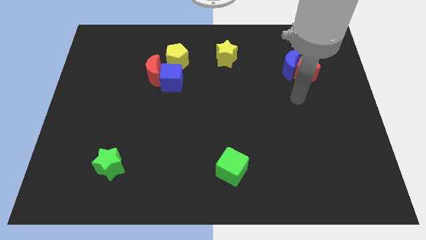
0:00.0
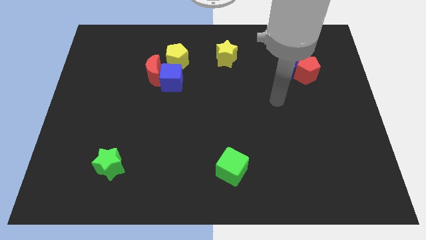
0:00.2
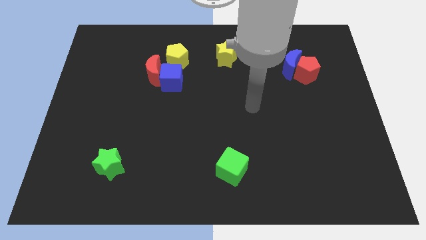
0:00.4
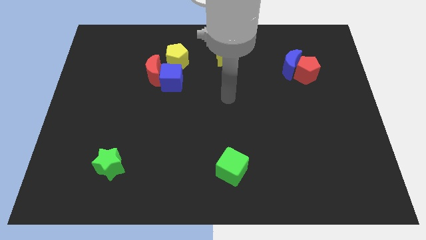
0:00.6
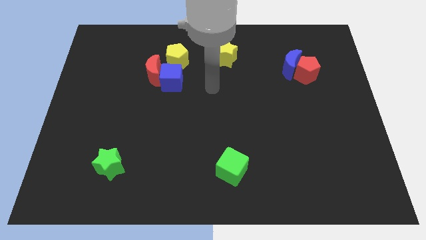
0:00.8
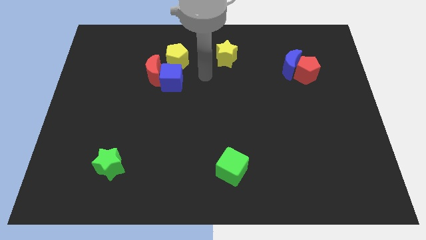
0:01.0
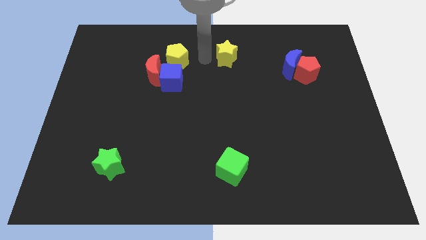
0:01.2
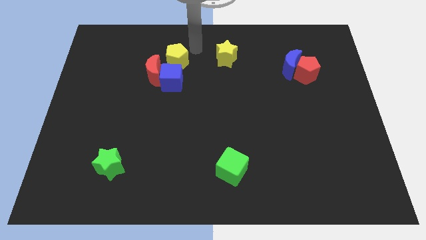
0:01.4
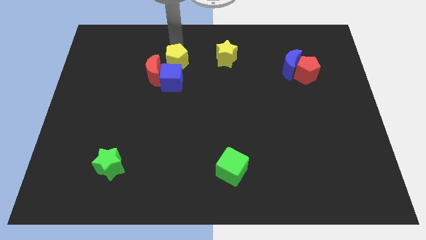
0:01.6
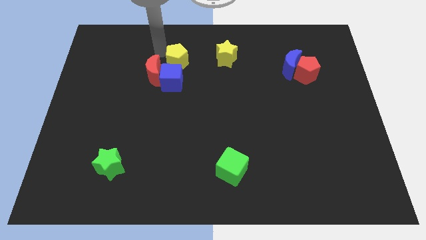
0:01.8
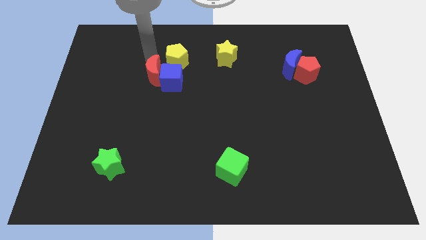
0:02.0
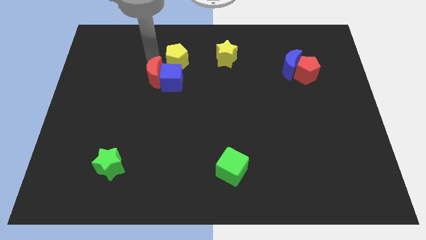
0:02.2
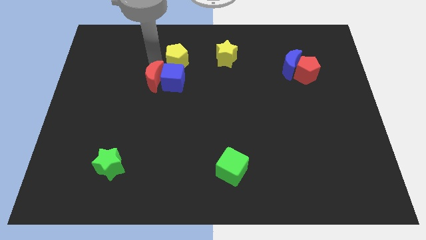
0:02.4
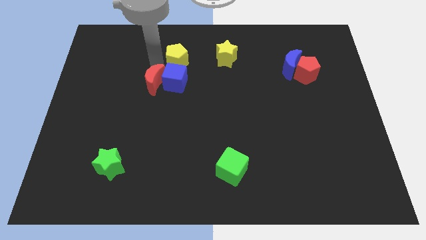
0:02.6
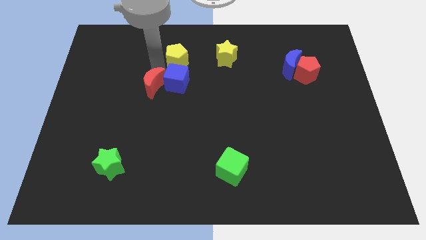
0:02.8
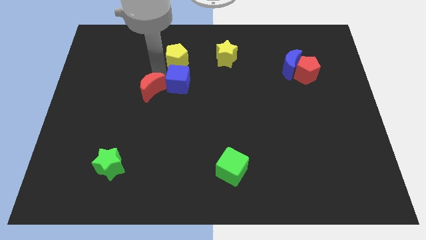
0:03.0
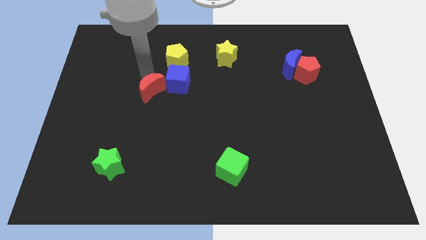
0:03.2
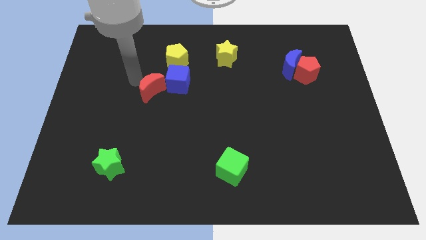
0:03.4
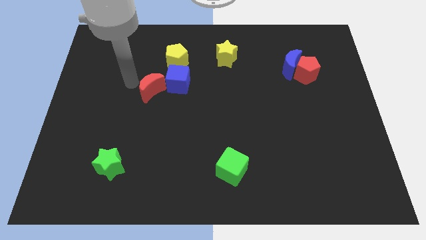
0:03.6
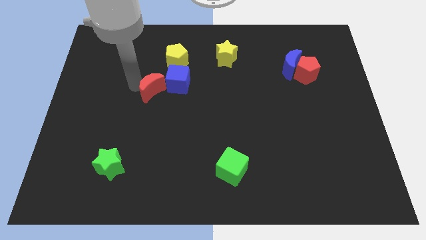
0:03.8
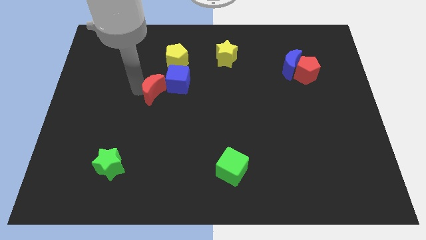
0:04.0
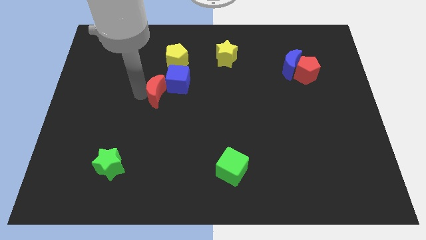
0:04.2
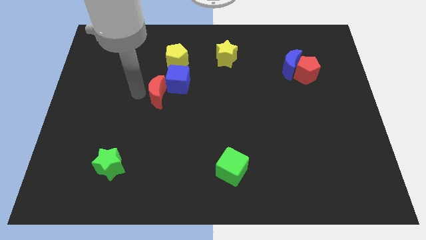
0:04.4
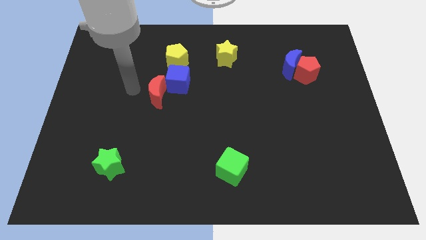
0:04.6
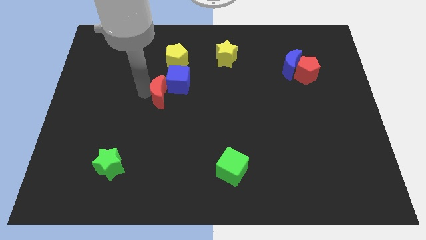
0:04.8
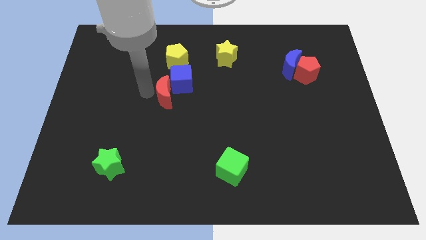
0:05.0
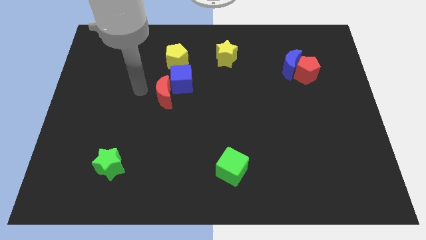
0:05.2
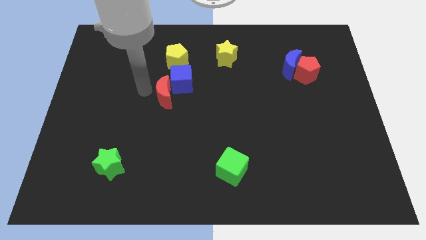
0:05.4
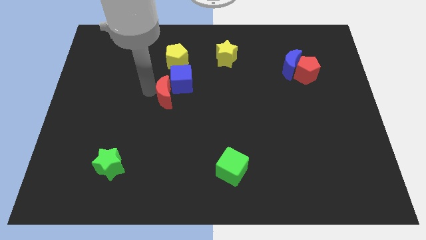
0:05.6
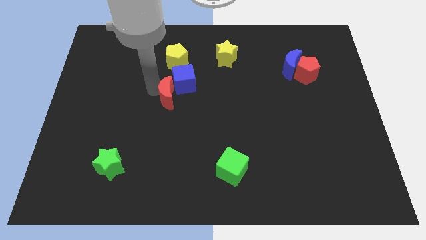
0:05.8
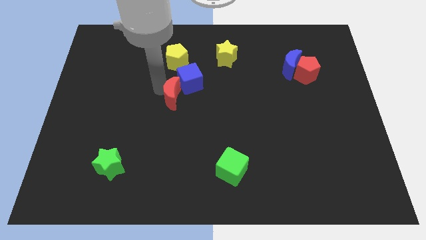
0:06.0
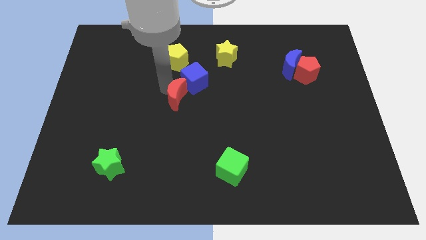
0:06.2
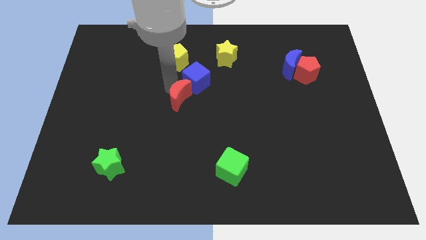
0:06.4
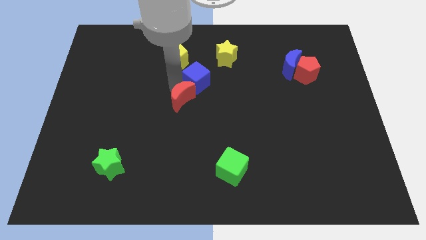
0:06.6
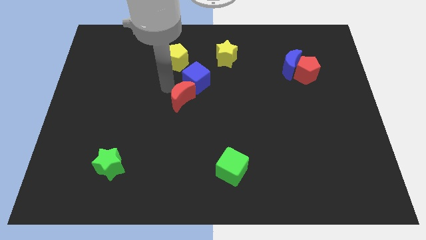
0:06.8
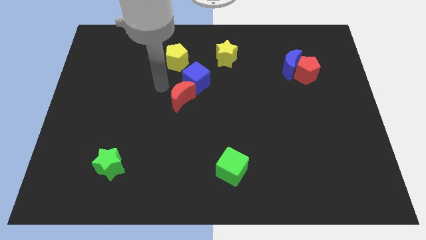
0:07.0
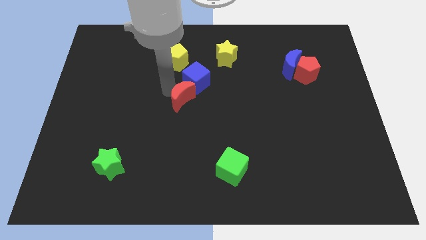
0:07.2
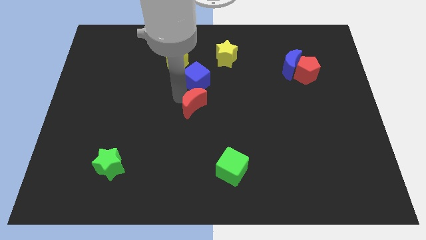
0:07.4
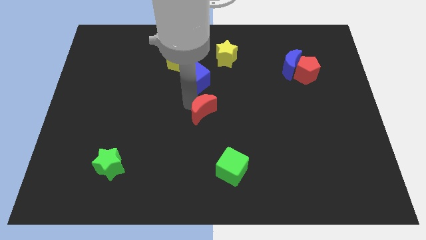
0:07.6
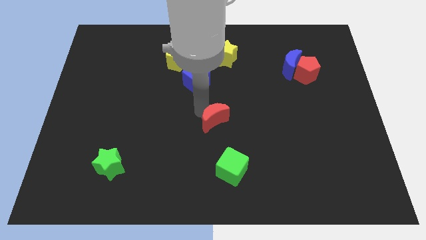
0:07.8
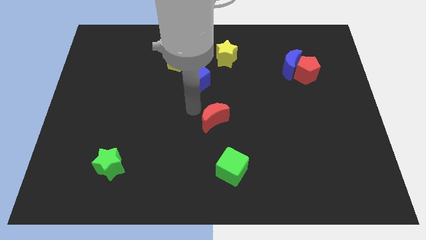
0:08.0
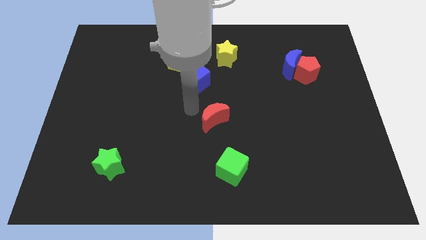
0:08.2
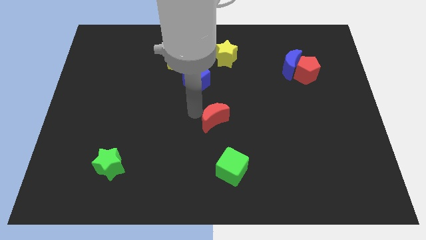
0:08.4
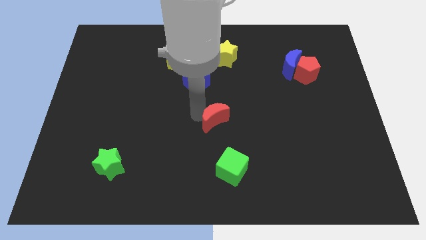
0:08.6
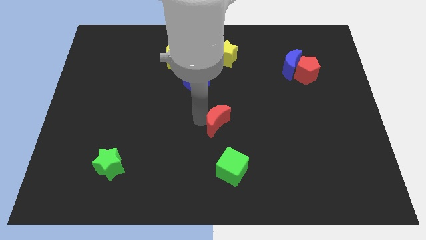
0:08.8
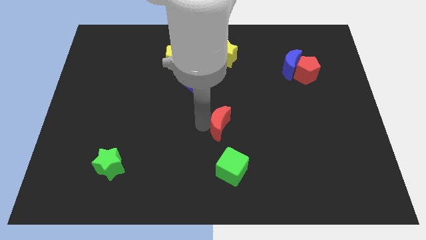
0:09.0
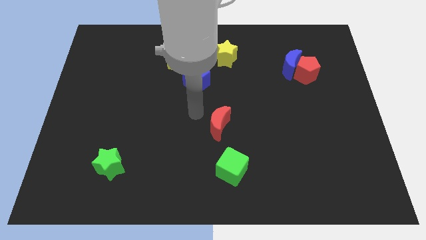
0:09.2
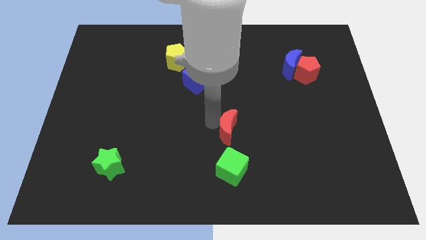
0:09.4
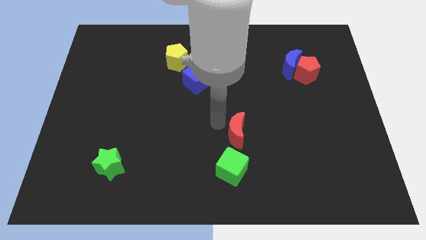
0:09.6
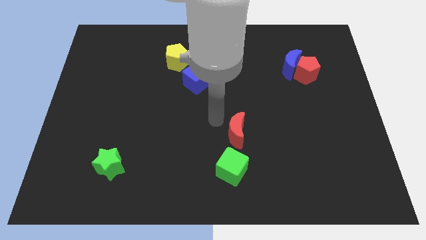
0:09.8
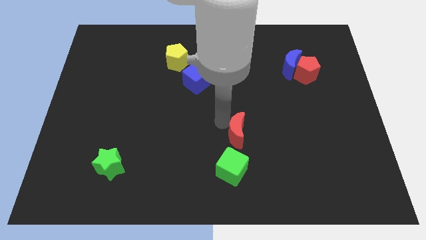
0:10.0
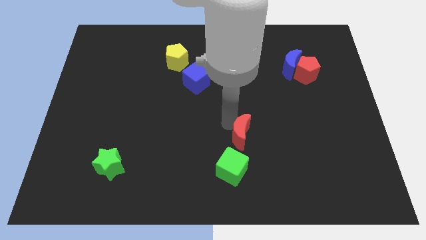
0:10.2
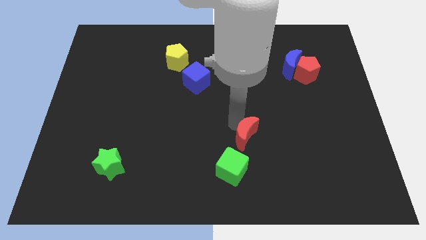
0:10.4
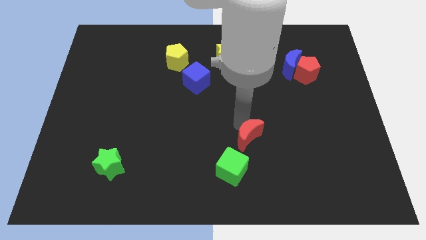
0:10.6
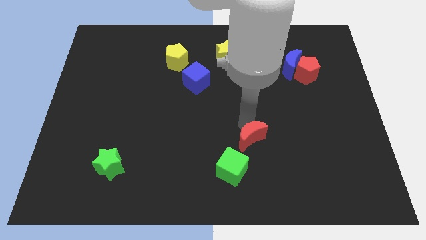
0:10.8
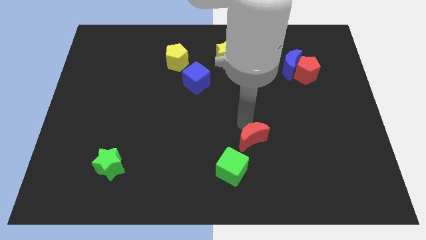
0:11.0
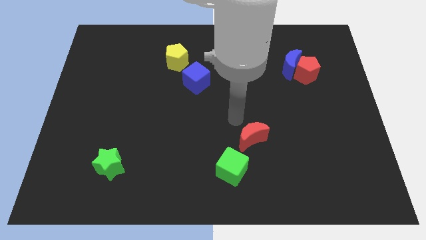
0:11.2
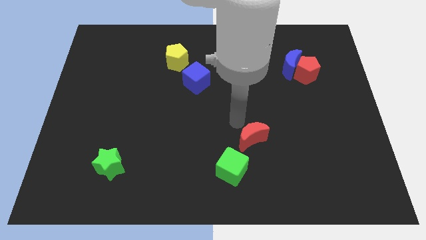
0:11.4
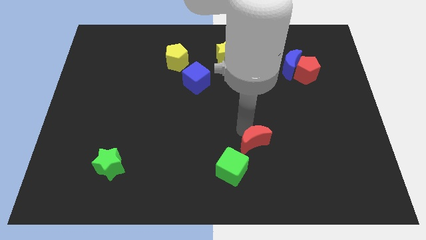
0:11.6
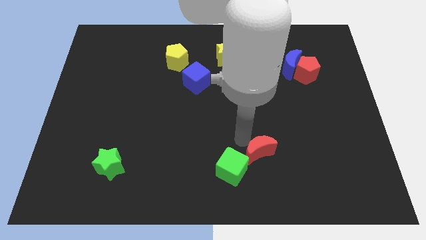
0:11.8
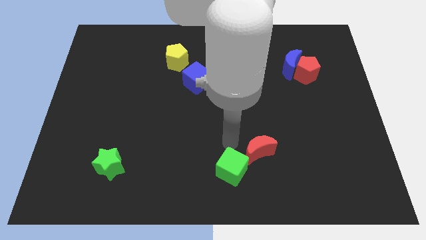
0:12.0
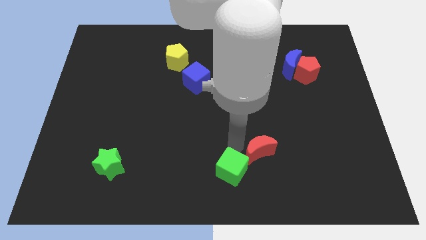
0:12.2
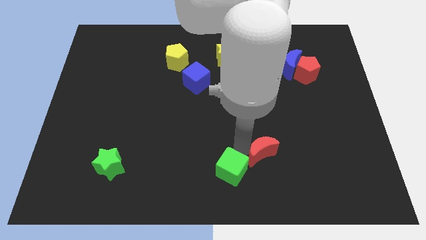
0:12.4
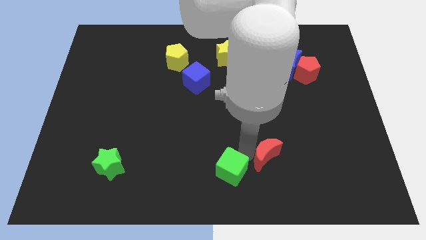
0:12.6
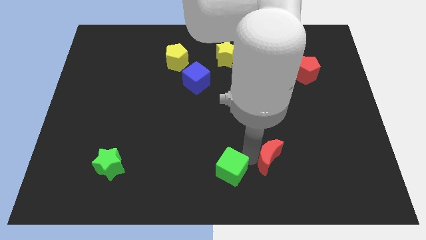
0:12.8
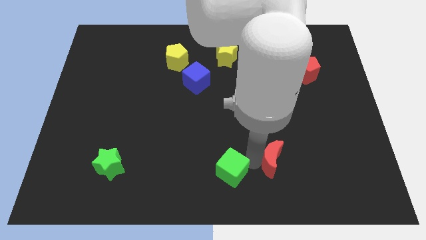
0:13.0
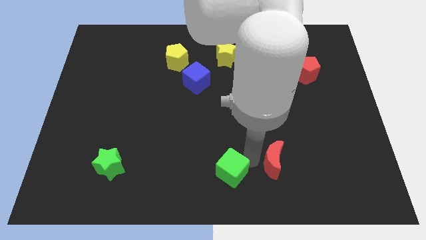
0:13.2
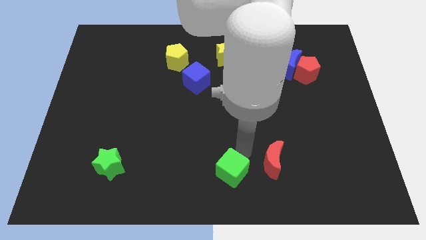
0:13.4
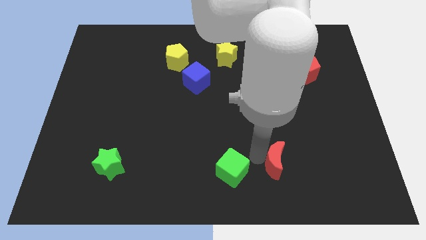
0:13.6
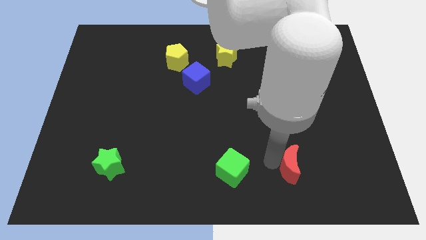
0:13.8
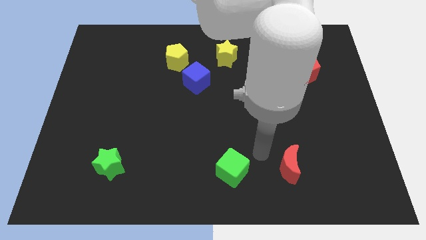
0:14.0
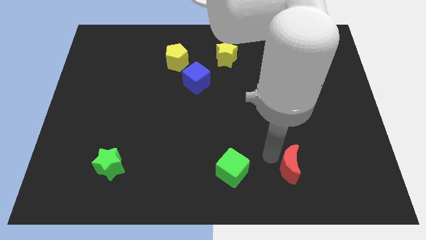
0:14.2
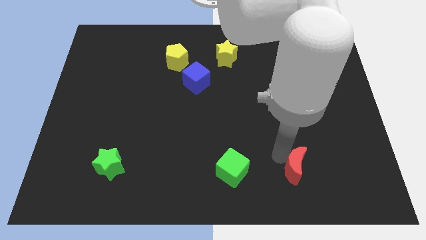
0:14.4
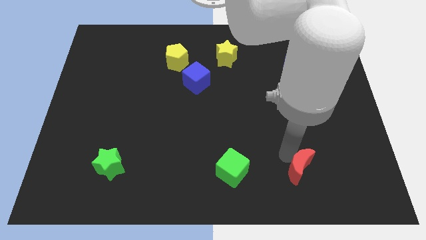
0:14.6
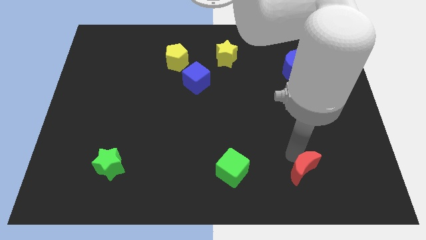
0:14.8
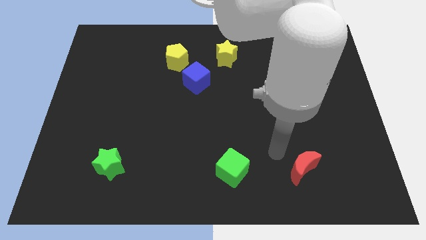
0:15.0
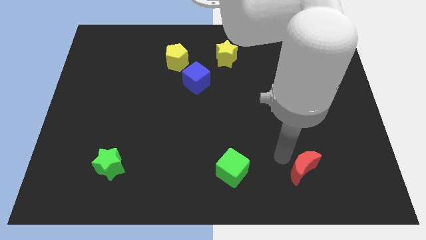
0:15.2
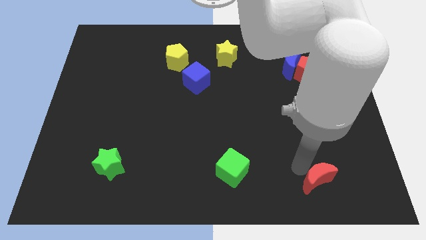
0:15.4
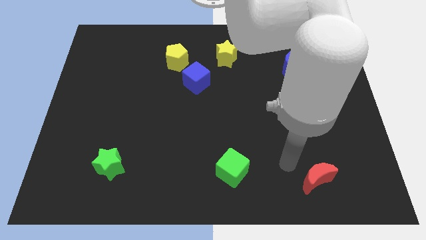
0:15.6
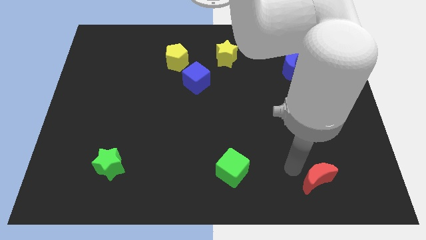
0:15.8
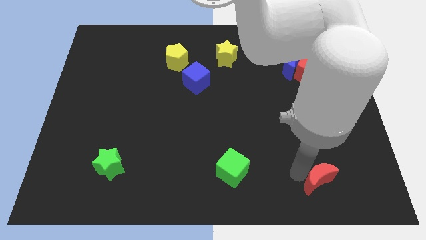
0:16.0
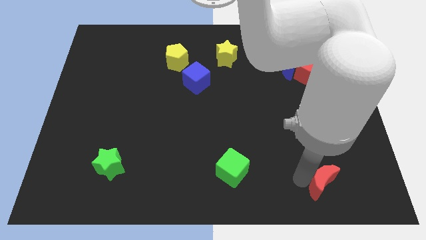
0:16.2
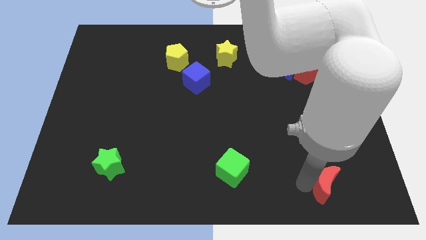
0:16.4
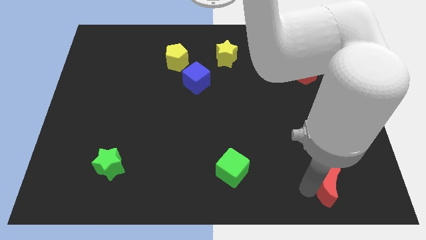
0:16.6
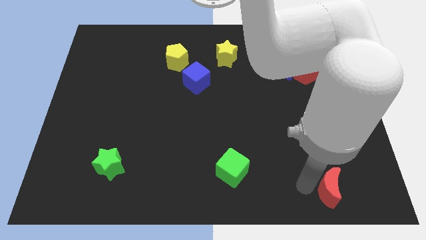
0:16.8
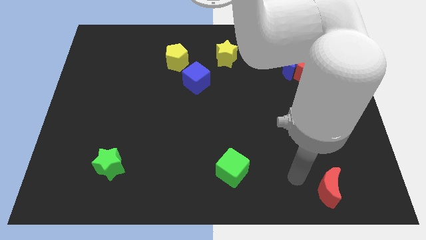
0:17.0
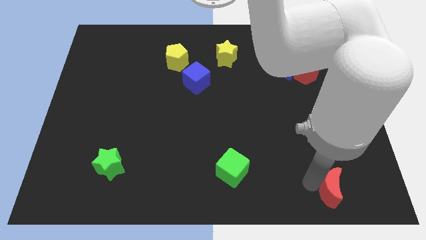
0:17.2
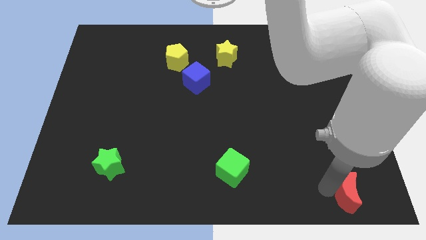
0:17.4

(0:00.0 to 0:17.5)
slide the red moon to the lower right corner
